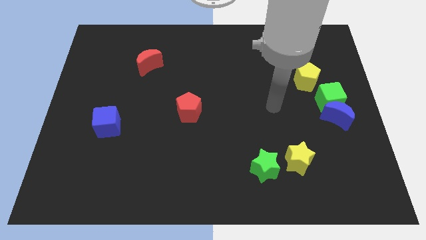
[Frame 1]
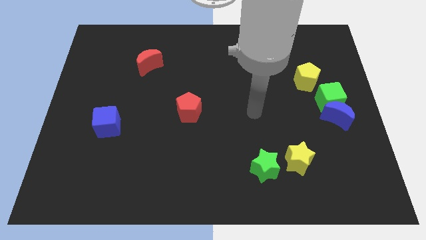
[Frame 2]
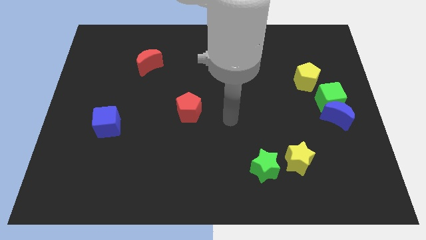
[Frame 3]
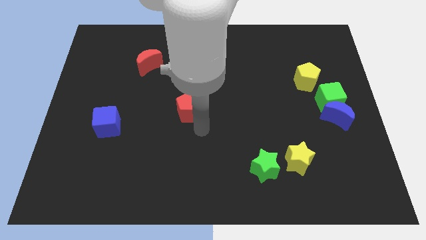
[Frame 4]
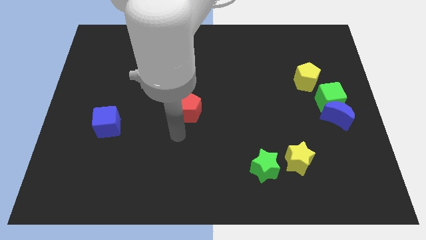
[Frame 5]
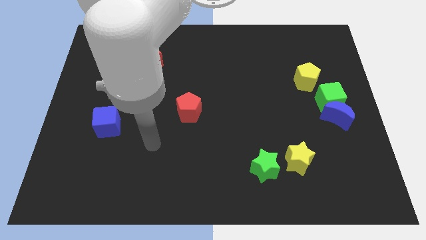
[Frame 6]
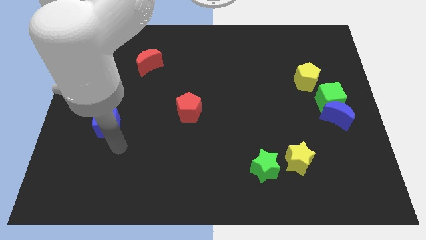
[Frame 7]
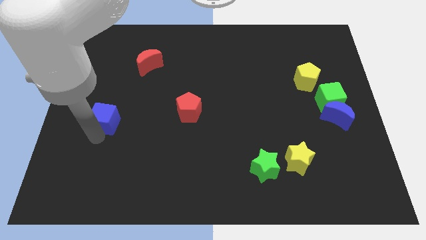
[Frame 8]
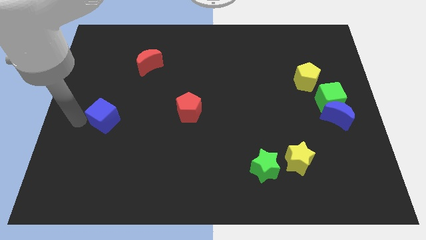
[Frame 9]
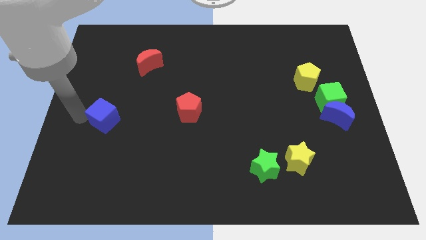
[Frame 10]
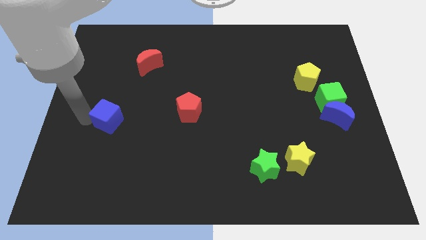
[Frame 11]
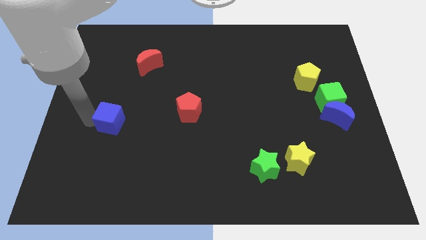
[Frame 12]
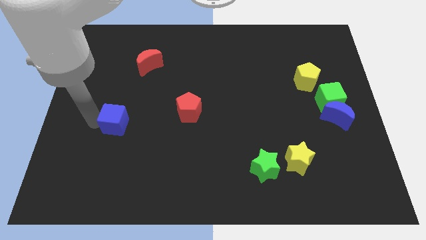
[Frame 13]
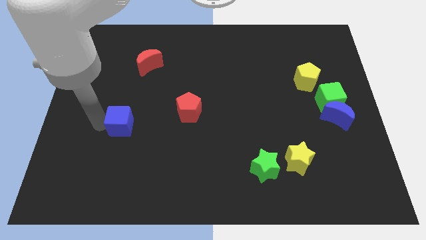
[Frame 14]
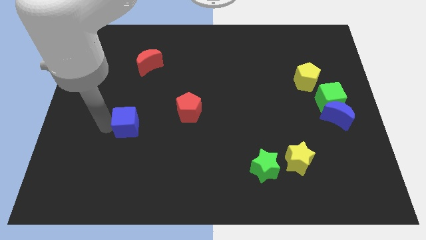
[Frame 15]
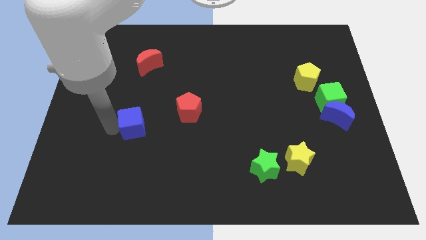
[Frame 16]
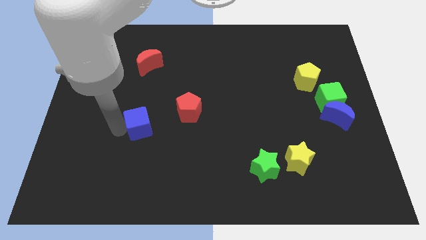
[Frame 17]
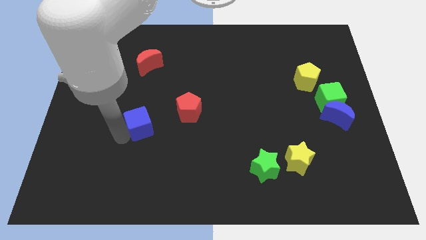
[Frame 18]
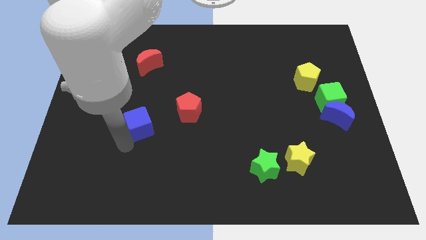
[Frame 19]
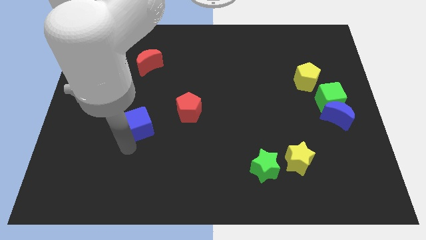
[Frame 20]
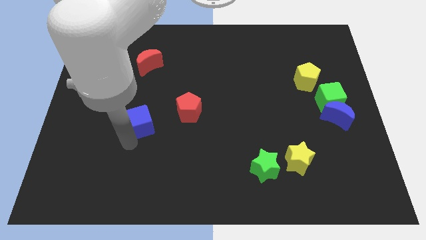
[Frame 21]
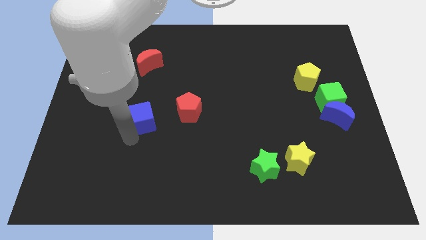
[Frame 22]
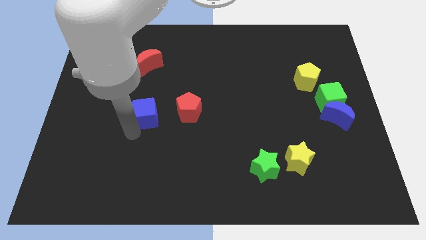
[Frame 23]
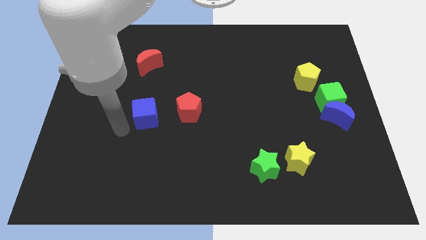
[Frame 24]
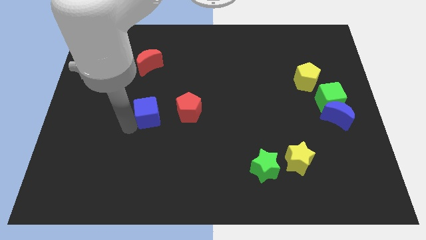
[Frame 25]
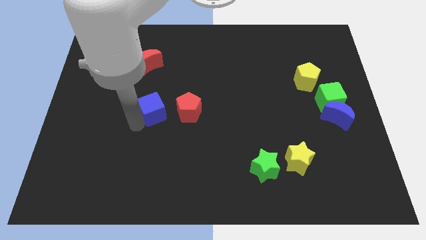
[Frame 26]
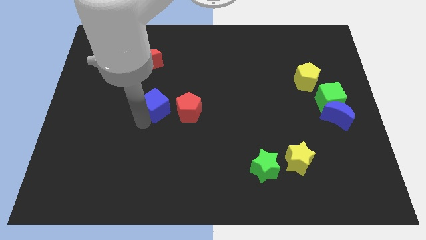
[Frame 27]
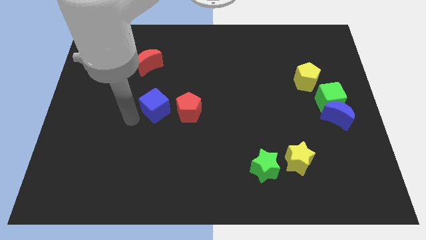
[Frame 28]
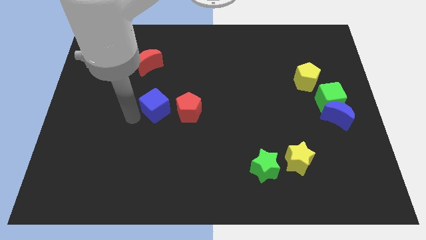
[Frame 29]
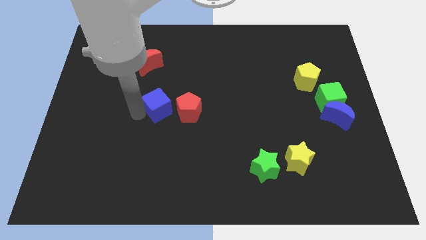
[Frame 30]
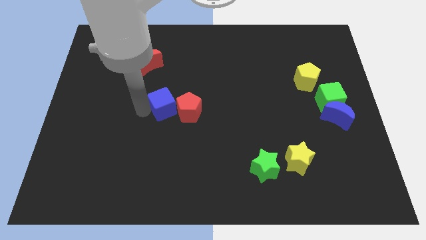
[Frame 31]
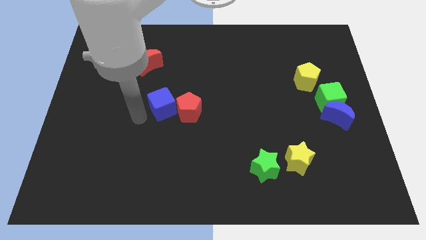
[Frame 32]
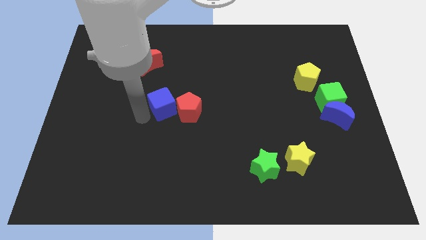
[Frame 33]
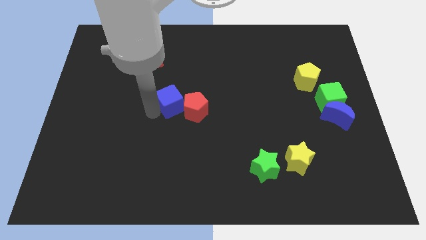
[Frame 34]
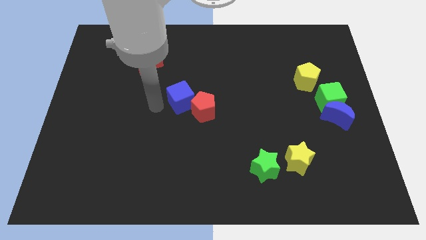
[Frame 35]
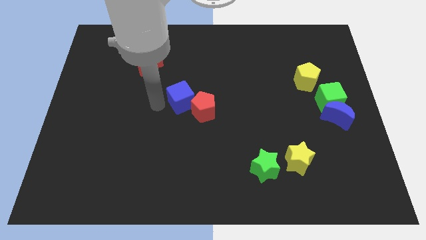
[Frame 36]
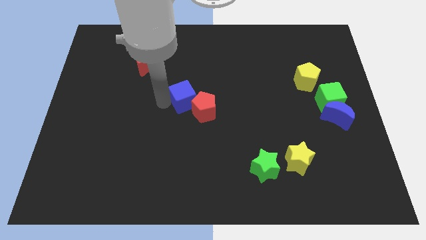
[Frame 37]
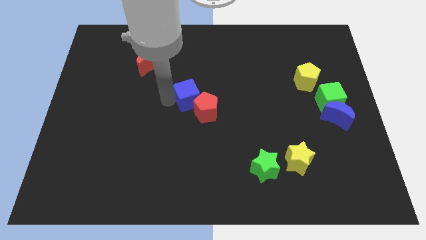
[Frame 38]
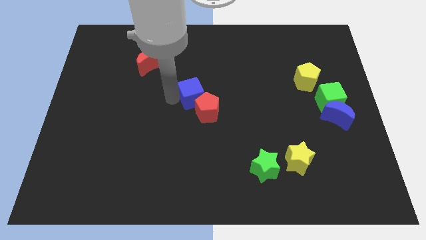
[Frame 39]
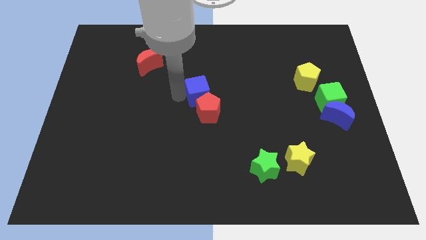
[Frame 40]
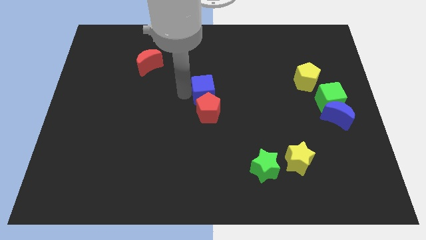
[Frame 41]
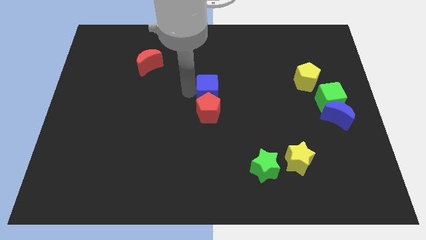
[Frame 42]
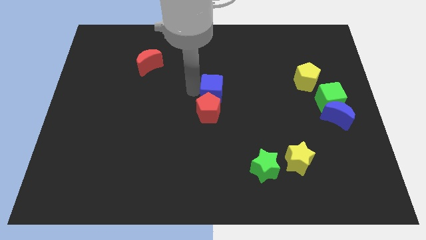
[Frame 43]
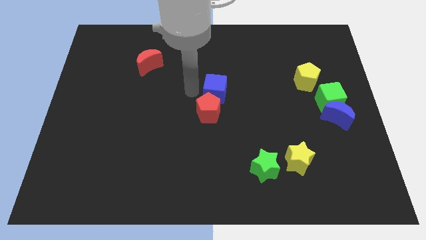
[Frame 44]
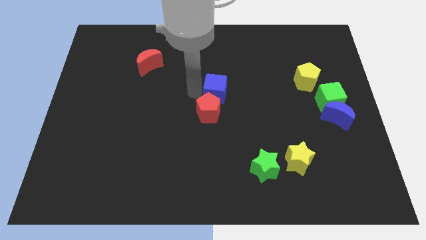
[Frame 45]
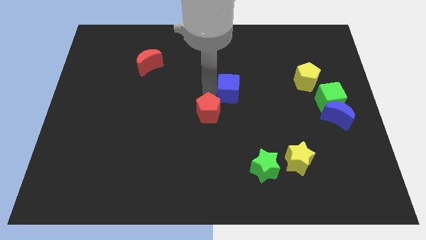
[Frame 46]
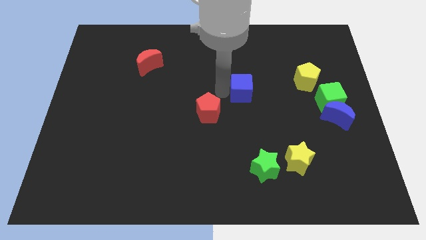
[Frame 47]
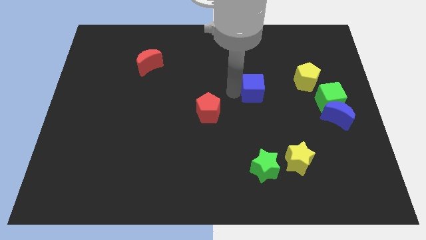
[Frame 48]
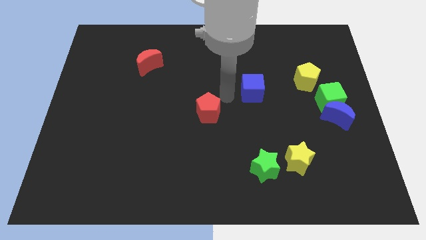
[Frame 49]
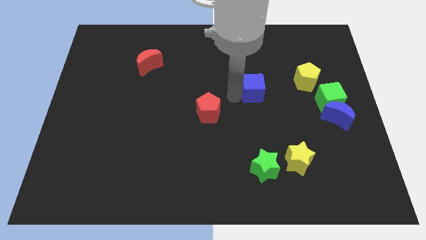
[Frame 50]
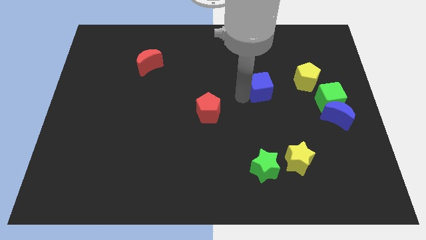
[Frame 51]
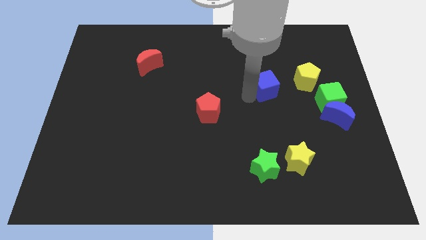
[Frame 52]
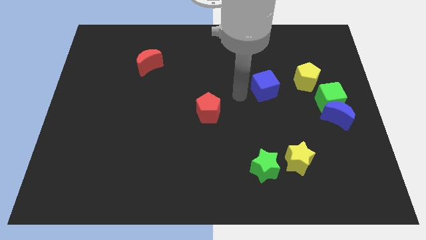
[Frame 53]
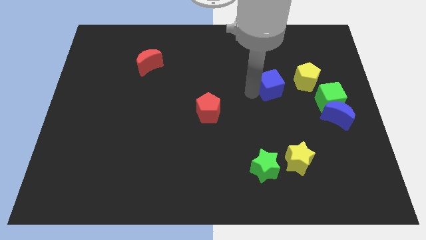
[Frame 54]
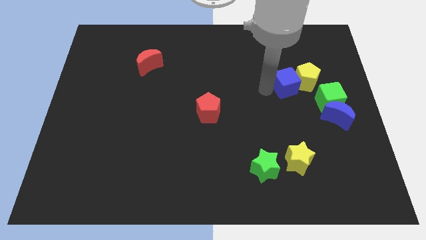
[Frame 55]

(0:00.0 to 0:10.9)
move the blue cube next to the yellow pentagon

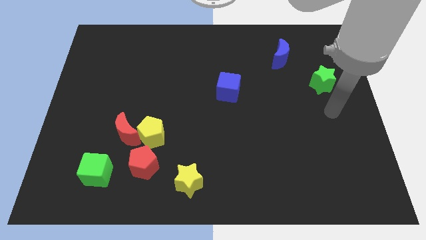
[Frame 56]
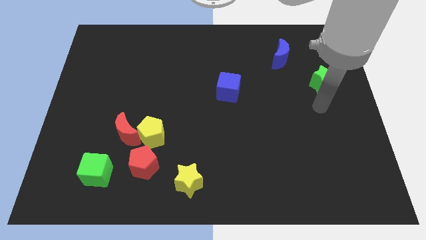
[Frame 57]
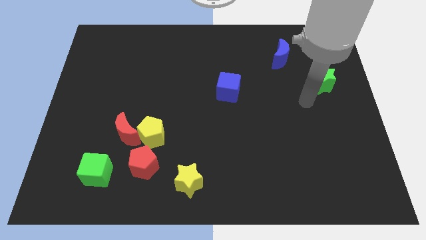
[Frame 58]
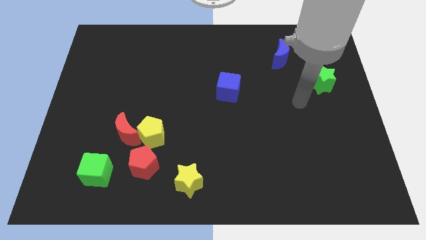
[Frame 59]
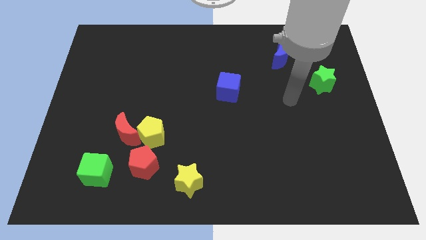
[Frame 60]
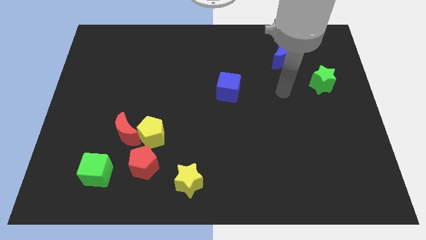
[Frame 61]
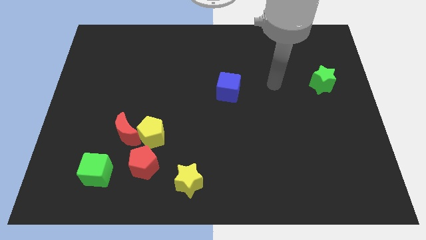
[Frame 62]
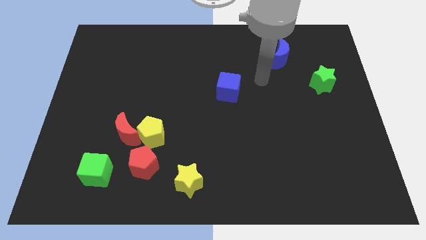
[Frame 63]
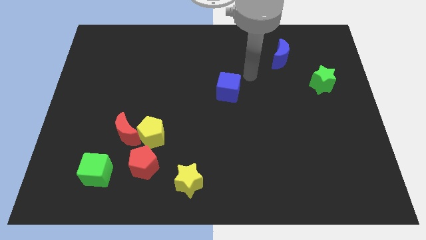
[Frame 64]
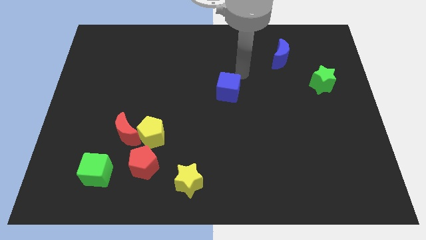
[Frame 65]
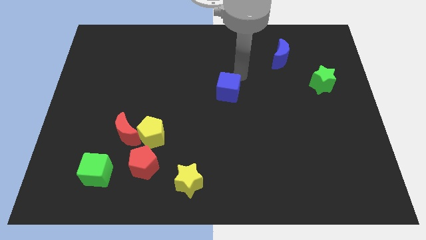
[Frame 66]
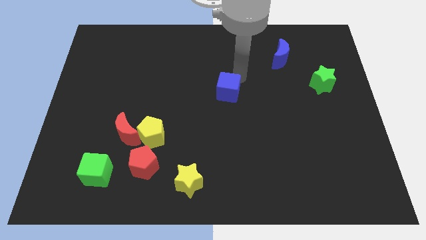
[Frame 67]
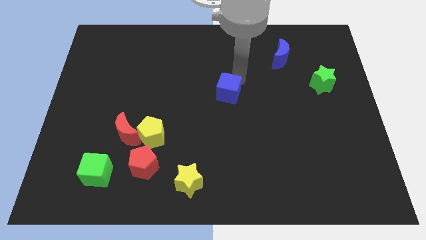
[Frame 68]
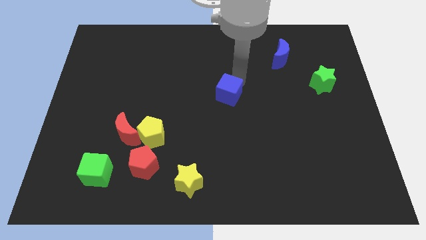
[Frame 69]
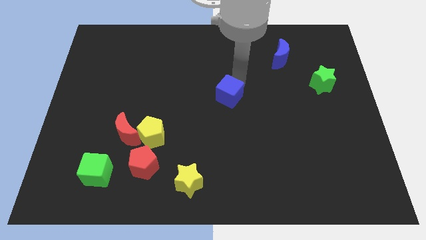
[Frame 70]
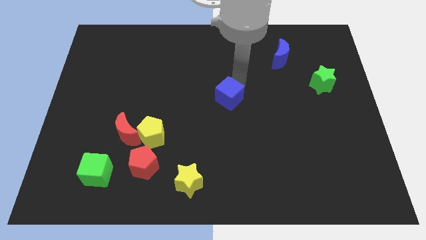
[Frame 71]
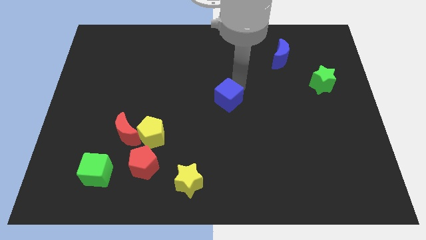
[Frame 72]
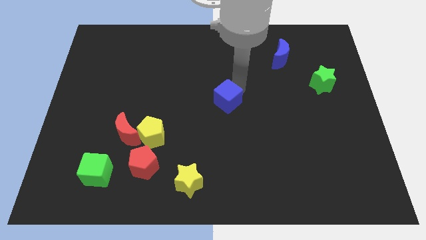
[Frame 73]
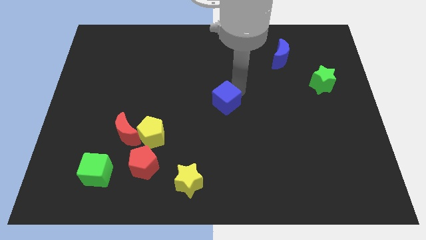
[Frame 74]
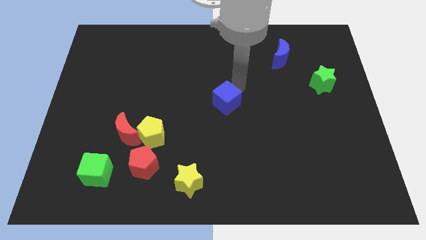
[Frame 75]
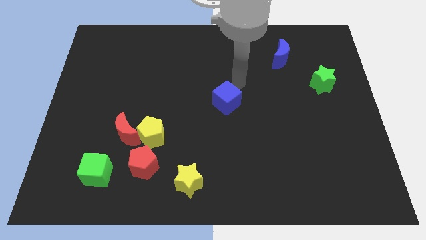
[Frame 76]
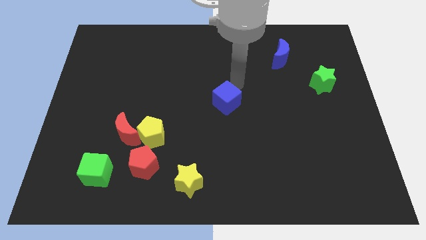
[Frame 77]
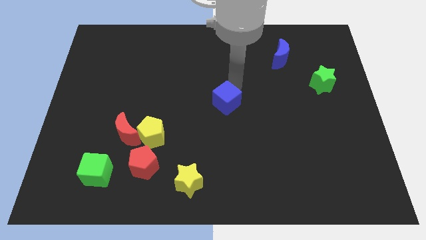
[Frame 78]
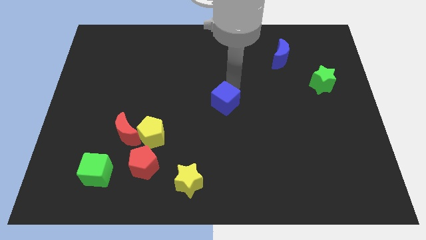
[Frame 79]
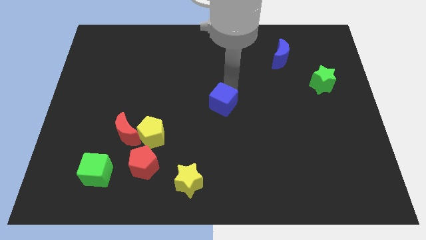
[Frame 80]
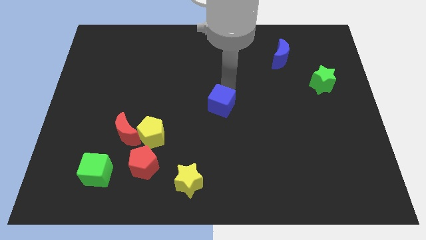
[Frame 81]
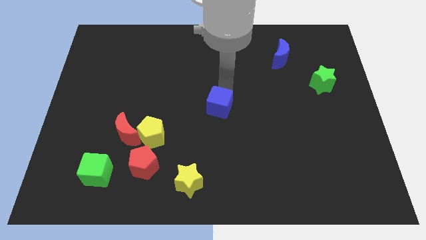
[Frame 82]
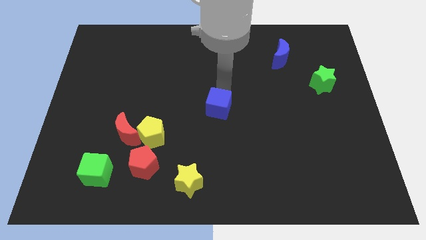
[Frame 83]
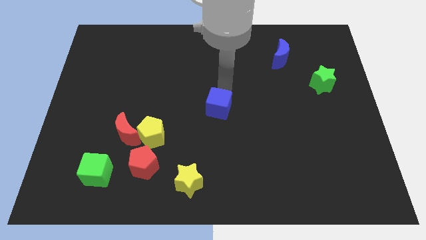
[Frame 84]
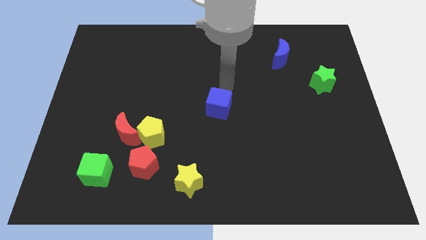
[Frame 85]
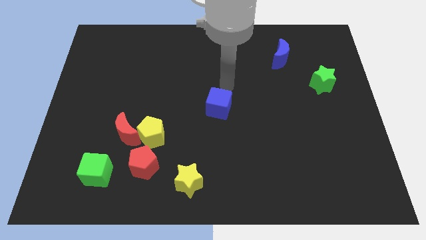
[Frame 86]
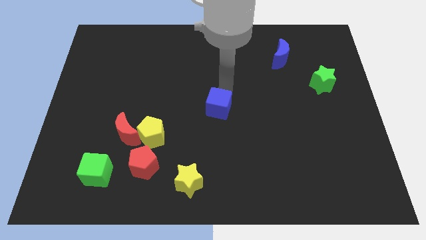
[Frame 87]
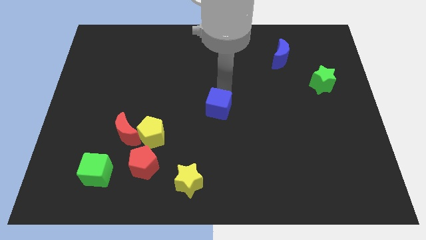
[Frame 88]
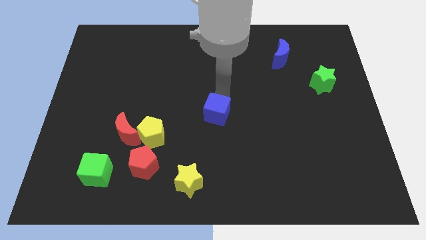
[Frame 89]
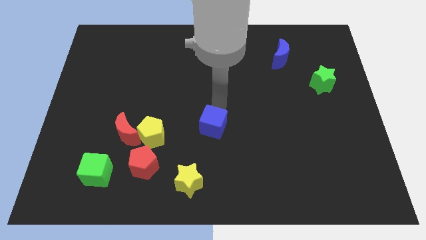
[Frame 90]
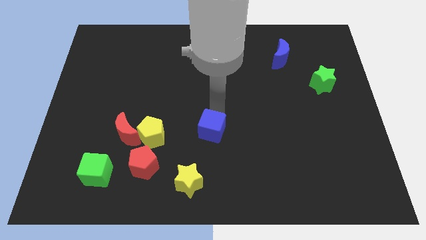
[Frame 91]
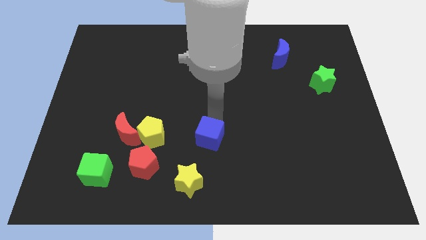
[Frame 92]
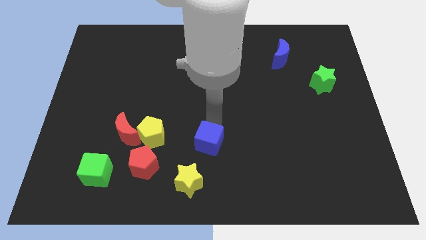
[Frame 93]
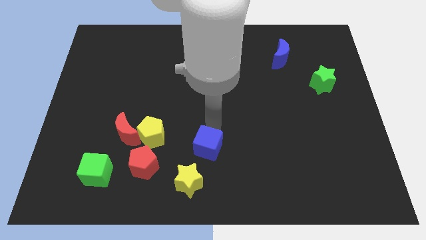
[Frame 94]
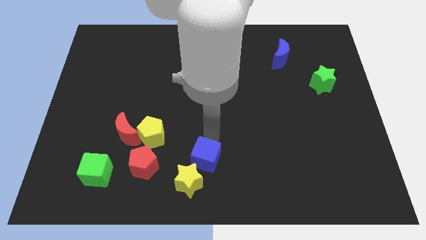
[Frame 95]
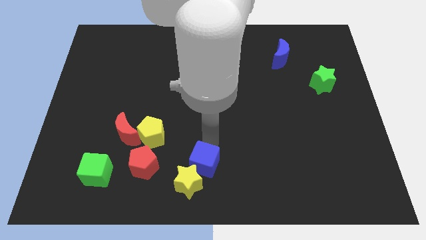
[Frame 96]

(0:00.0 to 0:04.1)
push the blue cube close to the yellow star
